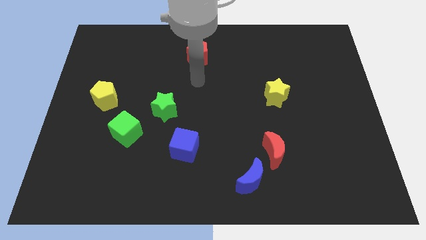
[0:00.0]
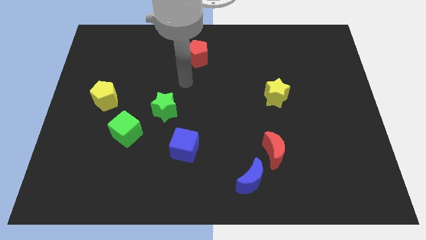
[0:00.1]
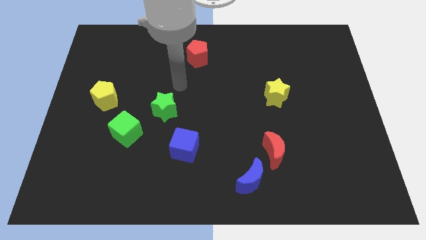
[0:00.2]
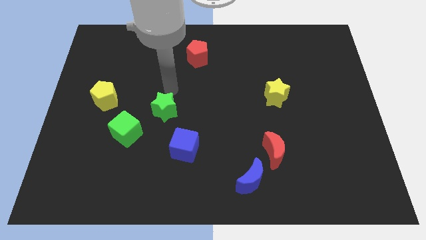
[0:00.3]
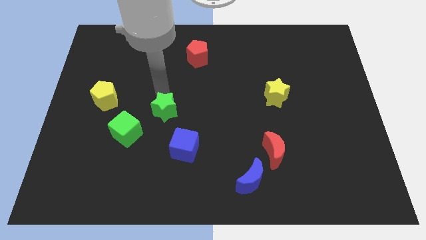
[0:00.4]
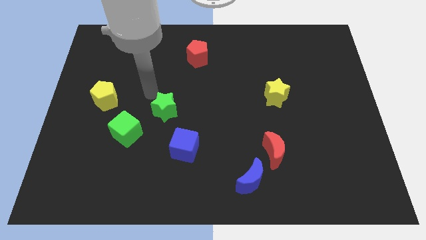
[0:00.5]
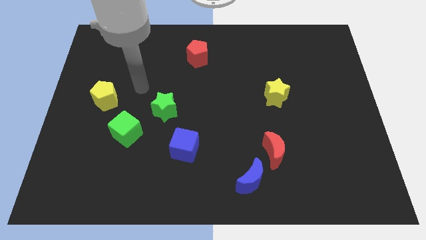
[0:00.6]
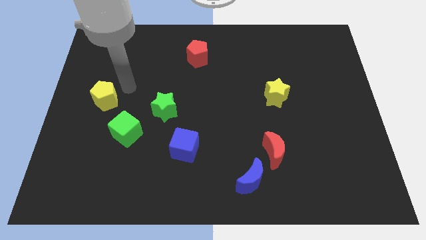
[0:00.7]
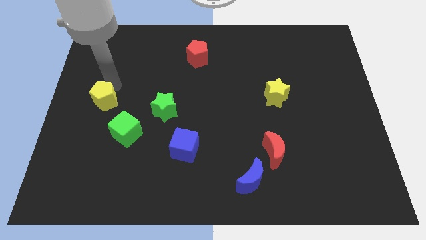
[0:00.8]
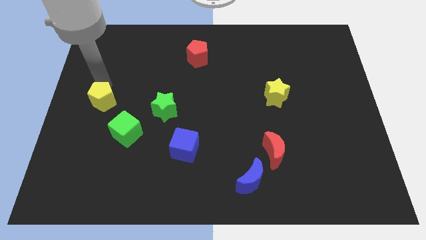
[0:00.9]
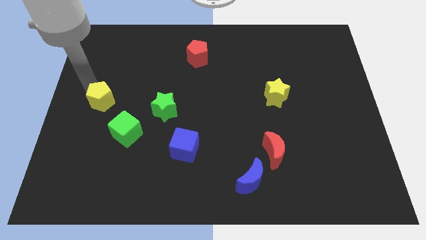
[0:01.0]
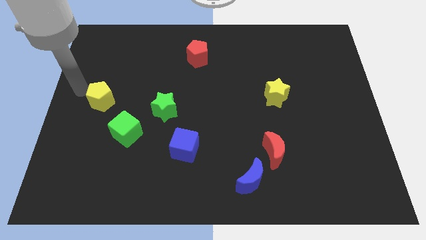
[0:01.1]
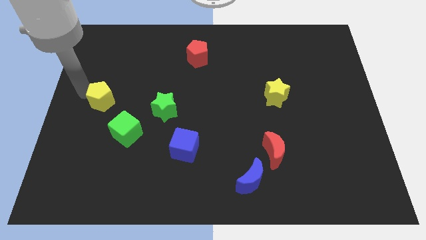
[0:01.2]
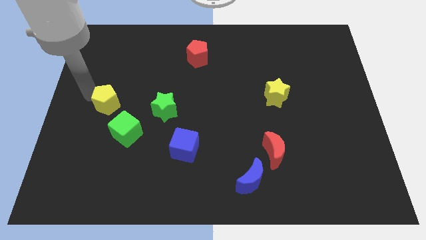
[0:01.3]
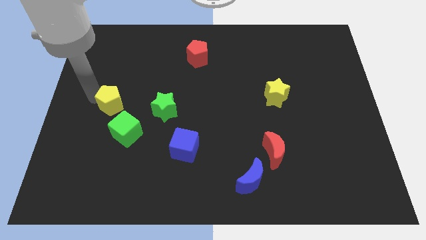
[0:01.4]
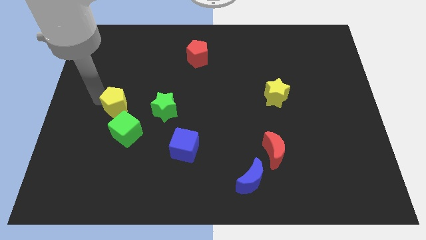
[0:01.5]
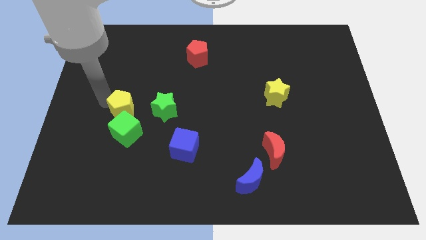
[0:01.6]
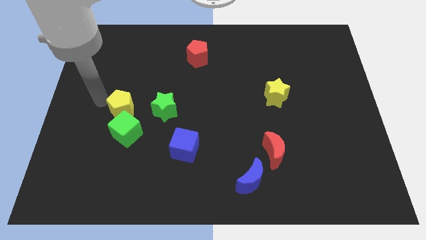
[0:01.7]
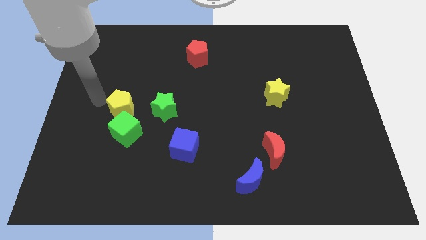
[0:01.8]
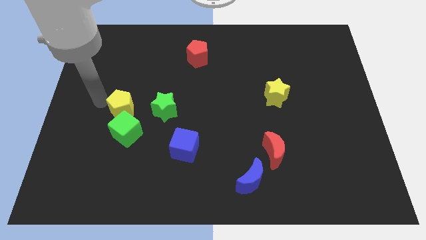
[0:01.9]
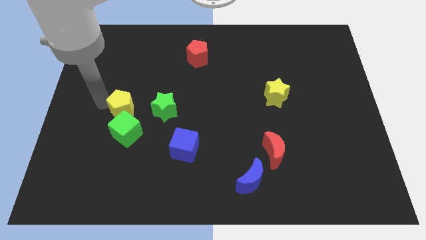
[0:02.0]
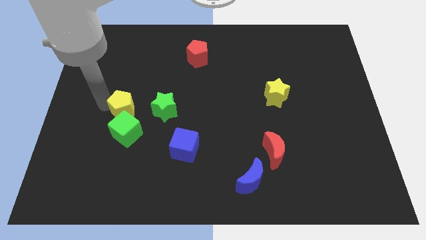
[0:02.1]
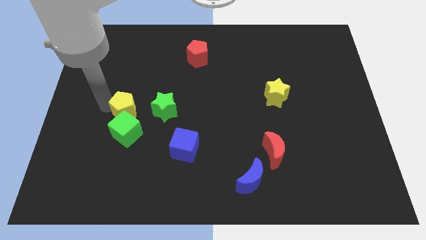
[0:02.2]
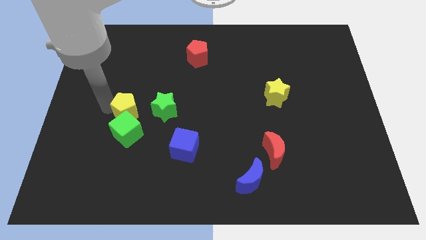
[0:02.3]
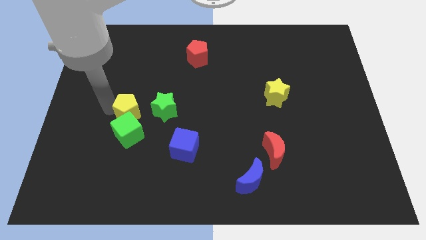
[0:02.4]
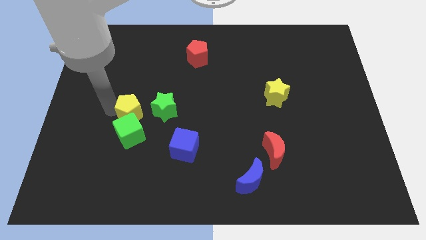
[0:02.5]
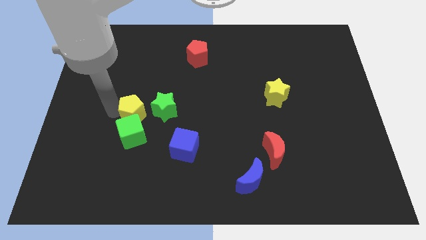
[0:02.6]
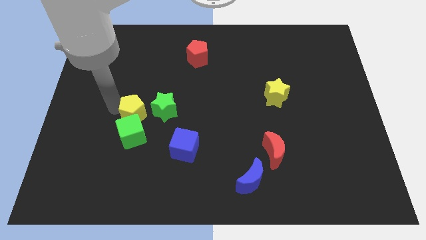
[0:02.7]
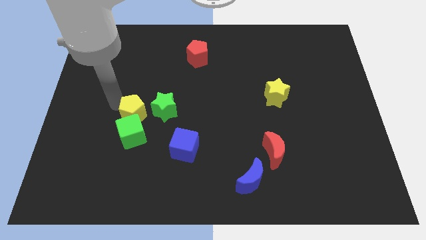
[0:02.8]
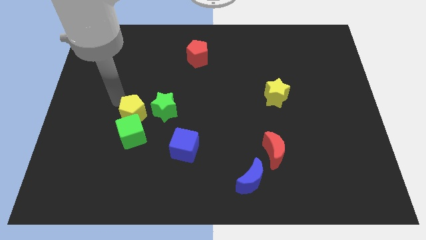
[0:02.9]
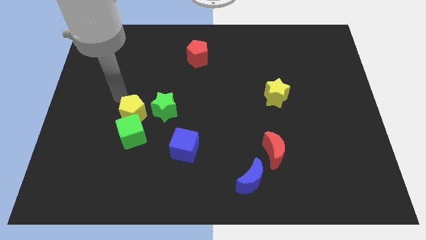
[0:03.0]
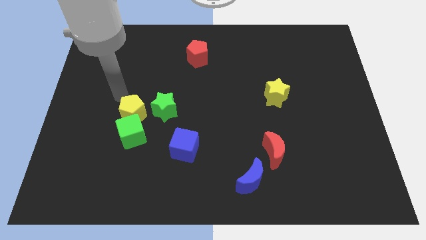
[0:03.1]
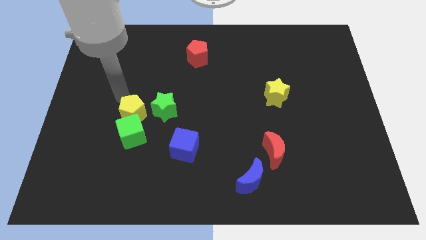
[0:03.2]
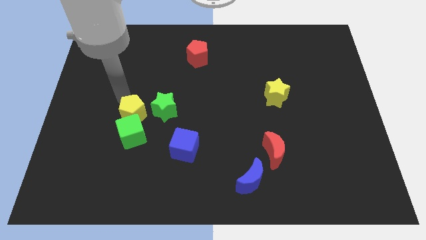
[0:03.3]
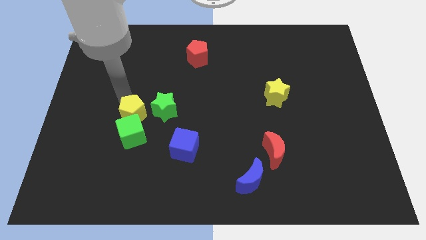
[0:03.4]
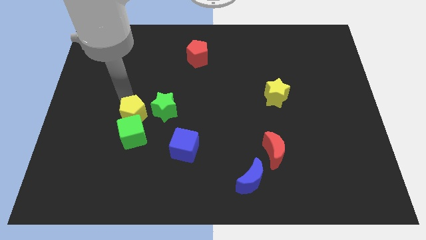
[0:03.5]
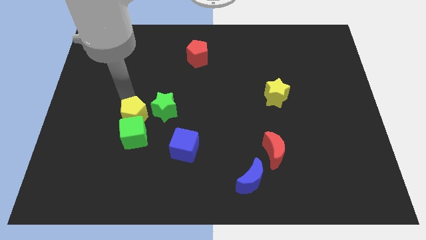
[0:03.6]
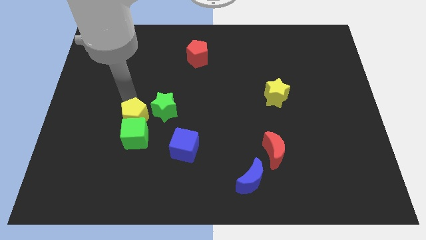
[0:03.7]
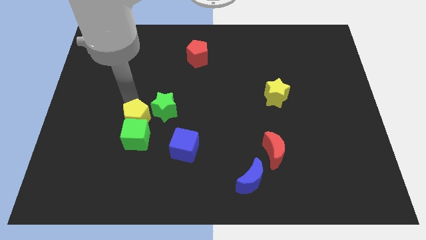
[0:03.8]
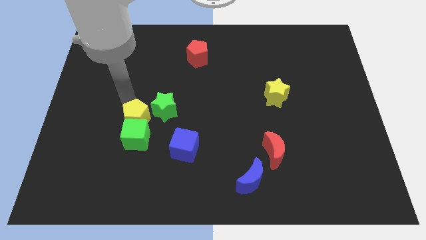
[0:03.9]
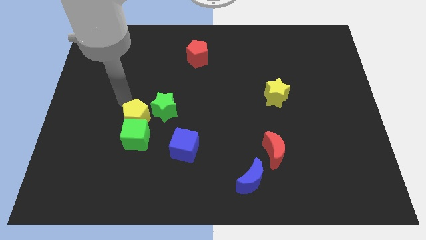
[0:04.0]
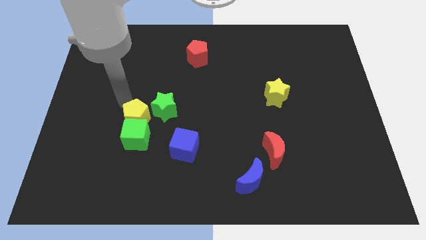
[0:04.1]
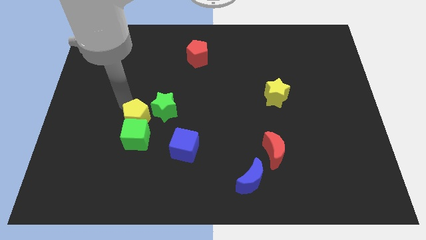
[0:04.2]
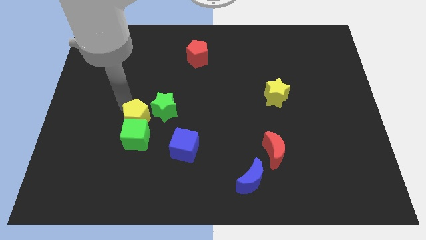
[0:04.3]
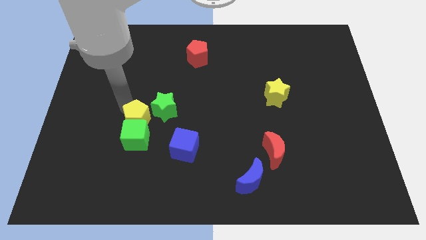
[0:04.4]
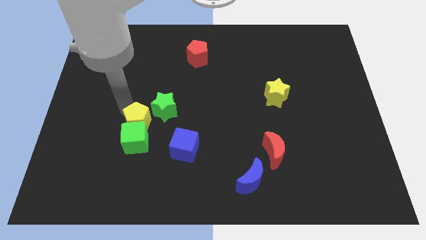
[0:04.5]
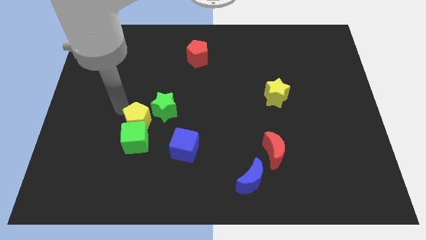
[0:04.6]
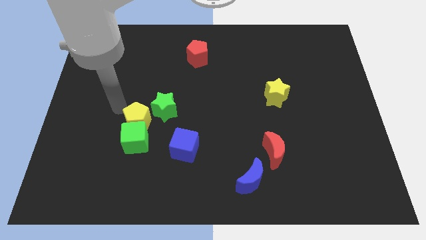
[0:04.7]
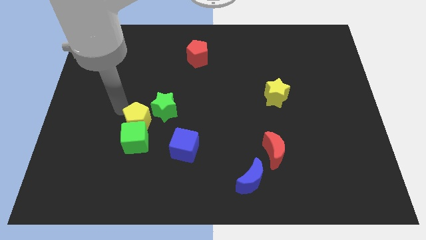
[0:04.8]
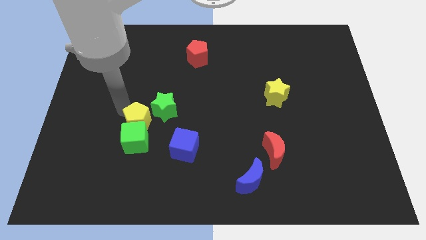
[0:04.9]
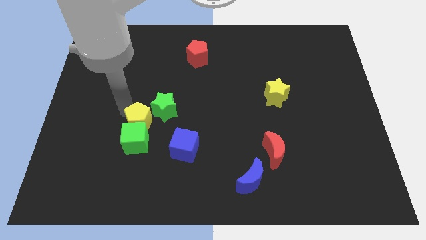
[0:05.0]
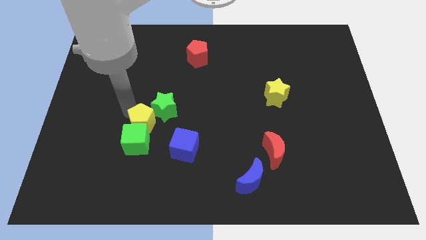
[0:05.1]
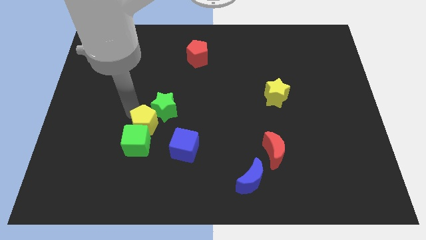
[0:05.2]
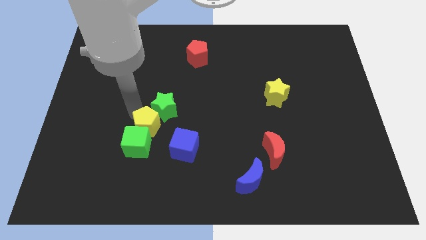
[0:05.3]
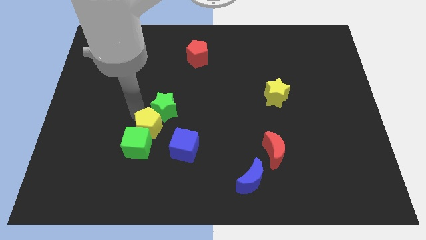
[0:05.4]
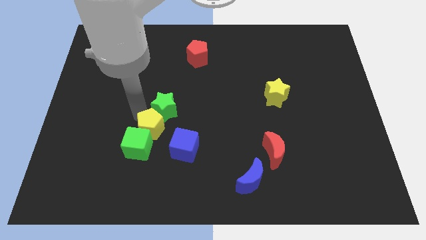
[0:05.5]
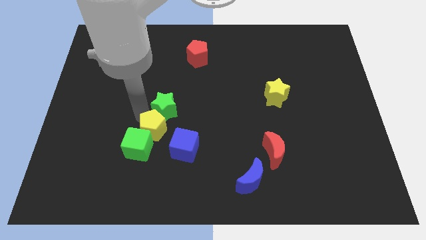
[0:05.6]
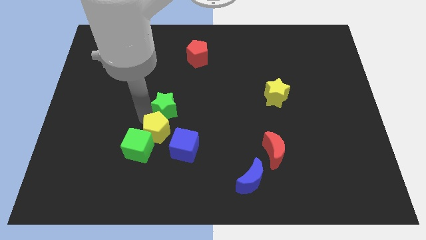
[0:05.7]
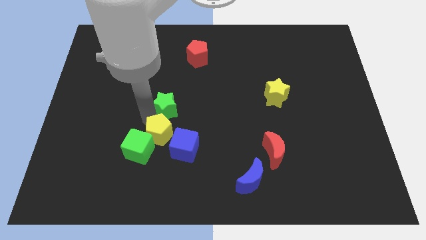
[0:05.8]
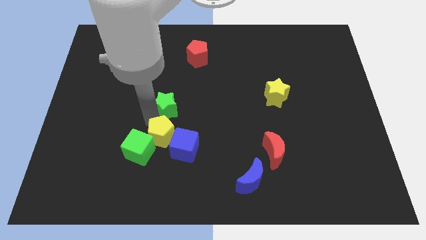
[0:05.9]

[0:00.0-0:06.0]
move the yellow pentagon towards the blue cube

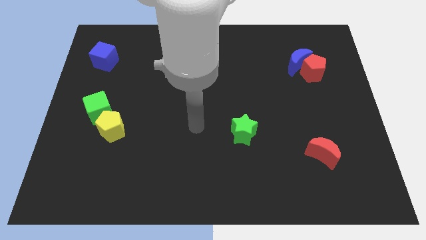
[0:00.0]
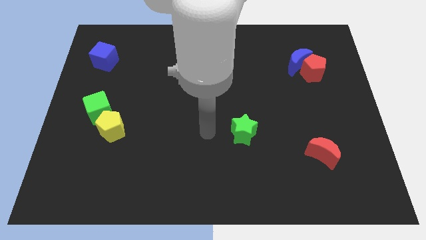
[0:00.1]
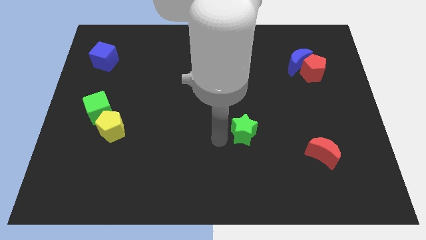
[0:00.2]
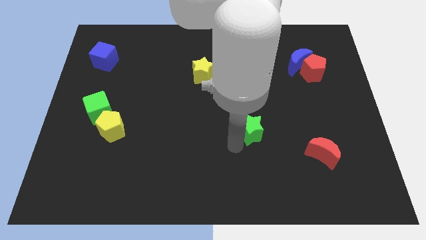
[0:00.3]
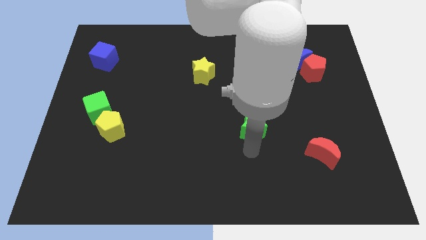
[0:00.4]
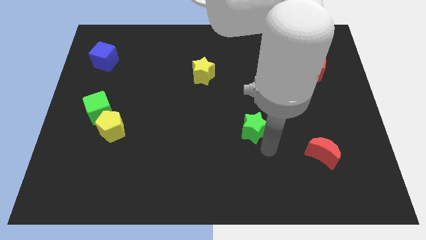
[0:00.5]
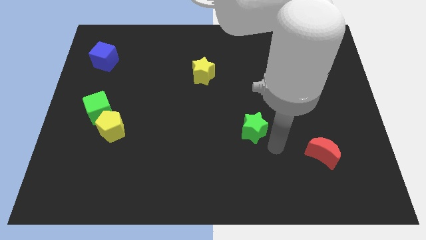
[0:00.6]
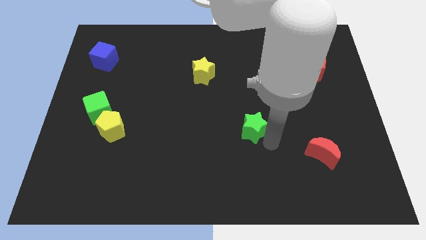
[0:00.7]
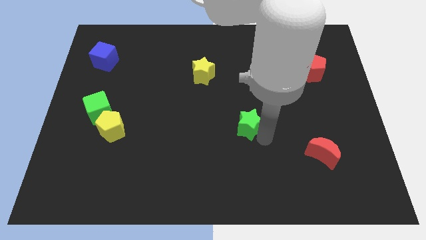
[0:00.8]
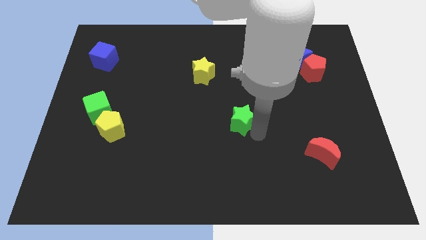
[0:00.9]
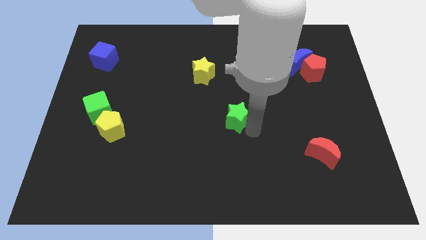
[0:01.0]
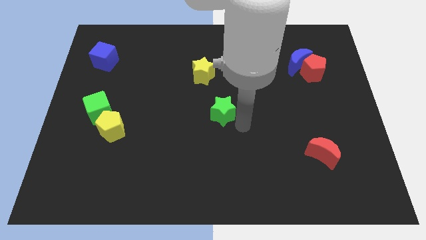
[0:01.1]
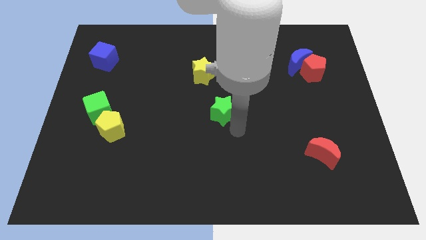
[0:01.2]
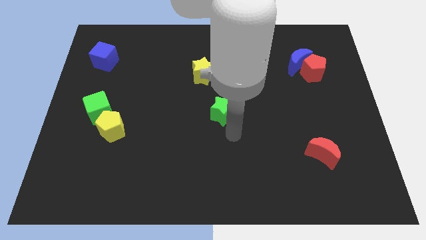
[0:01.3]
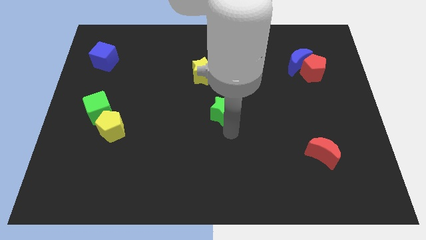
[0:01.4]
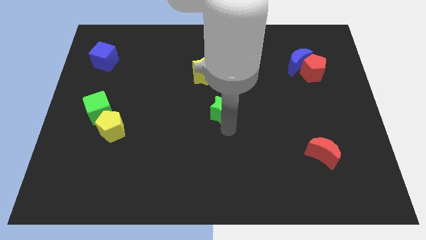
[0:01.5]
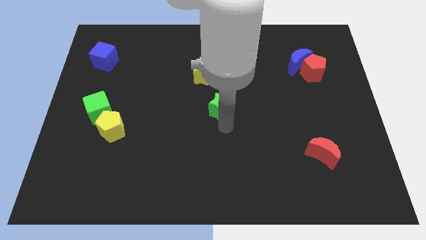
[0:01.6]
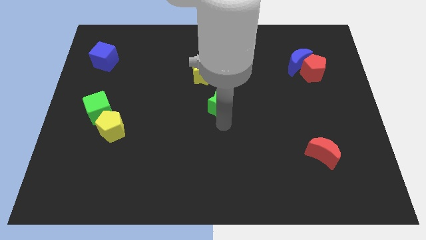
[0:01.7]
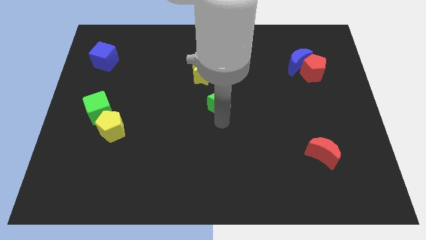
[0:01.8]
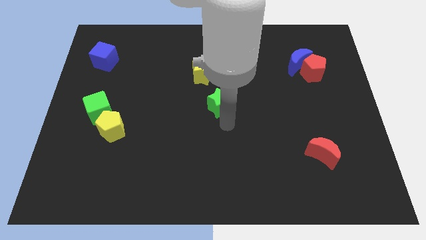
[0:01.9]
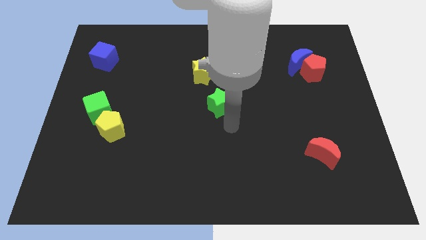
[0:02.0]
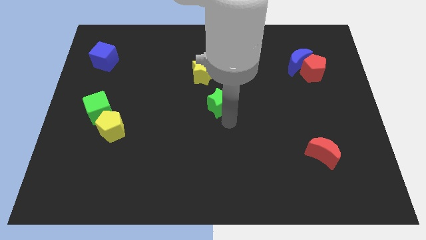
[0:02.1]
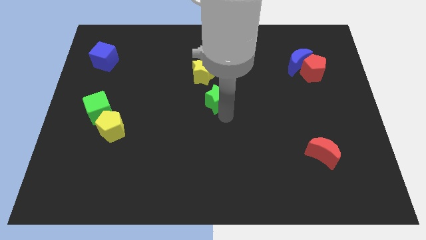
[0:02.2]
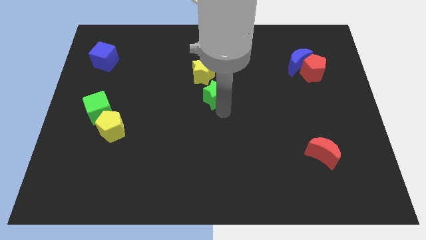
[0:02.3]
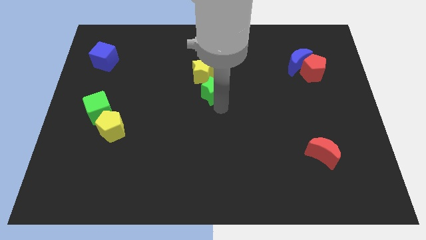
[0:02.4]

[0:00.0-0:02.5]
push the green star close to the yellow star
